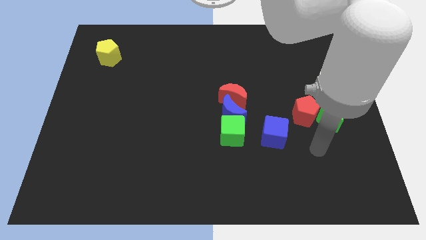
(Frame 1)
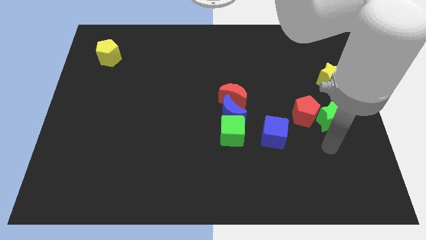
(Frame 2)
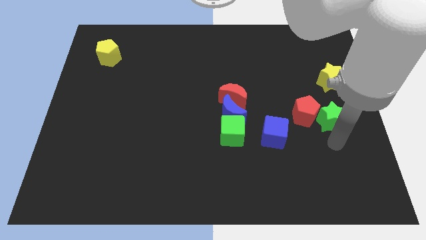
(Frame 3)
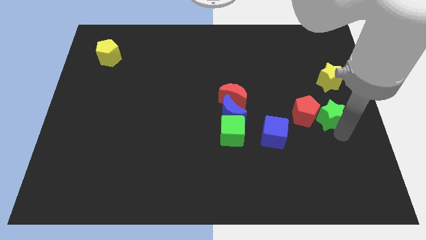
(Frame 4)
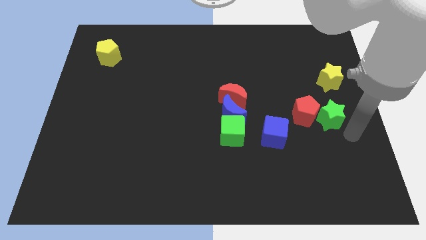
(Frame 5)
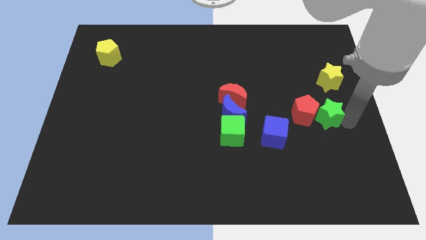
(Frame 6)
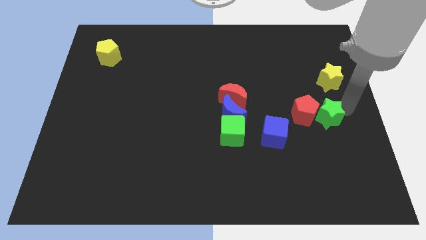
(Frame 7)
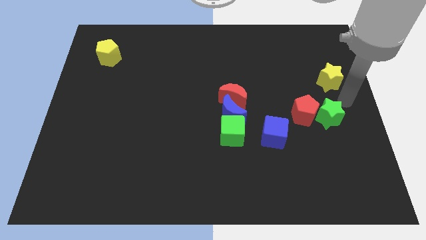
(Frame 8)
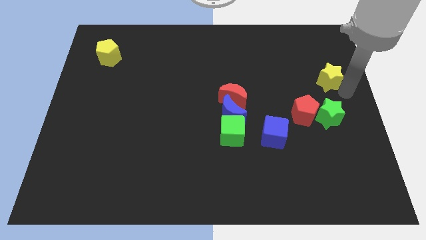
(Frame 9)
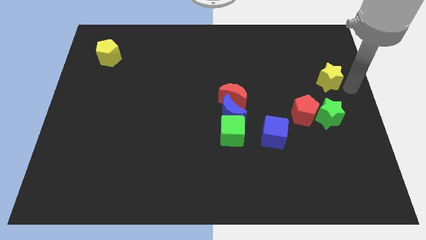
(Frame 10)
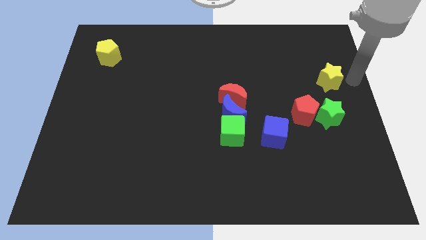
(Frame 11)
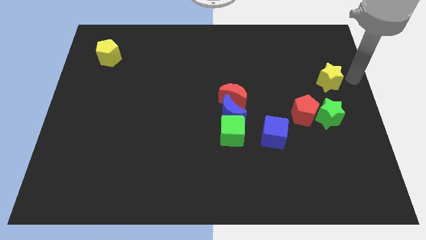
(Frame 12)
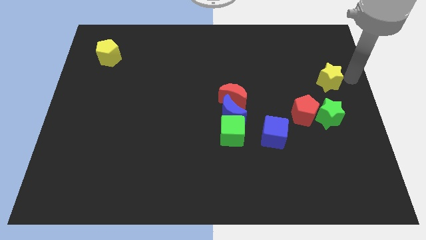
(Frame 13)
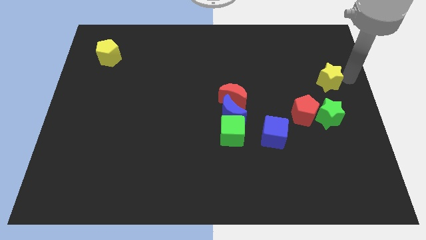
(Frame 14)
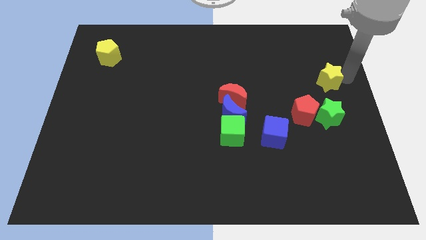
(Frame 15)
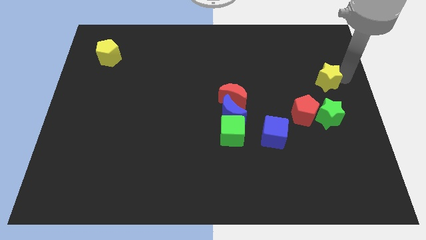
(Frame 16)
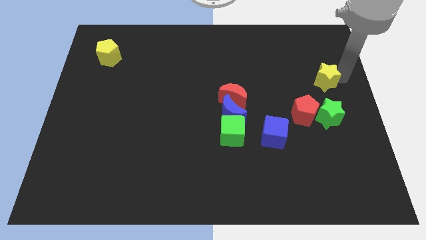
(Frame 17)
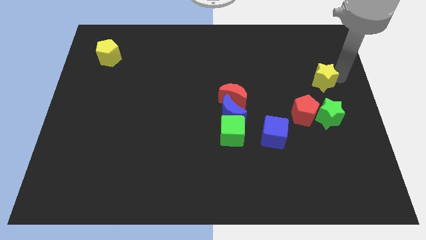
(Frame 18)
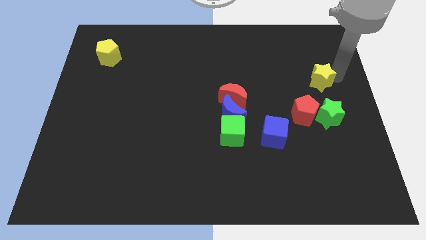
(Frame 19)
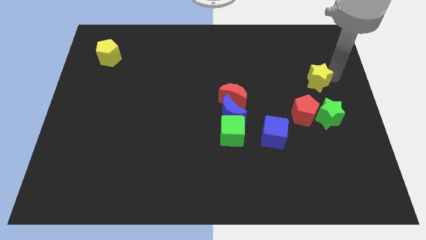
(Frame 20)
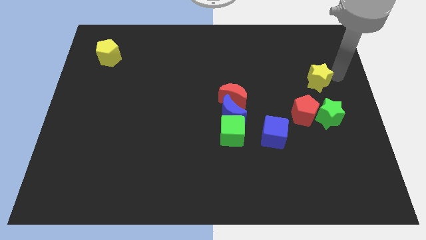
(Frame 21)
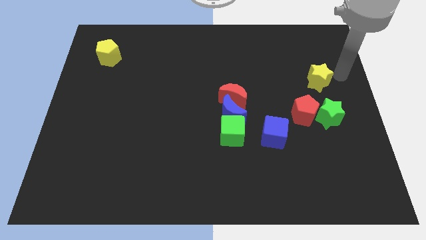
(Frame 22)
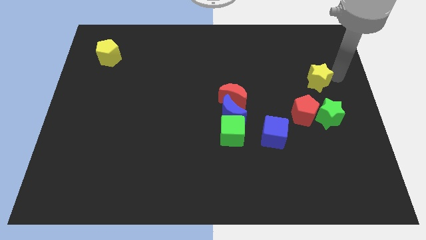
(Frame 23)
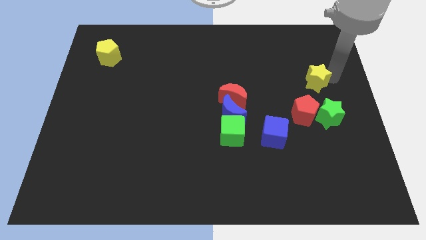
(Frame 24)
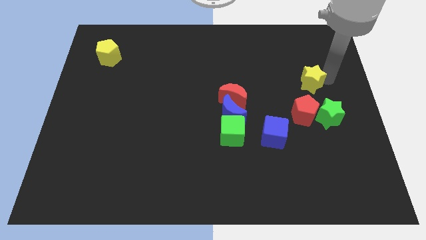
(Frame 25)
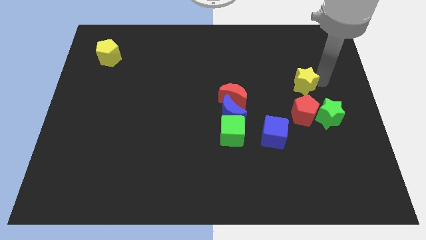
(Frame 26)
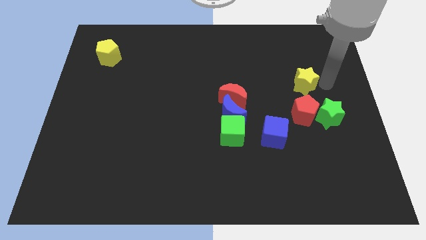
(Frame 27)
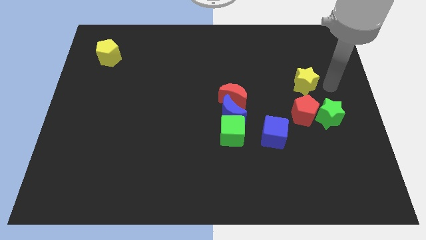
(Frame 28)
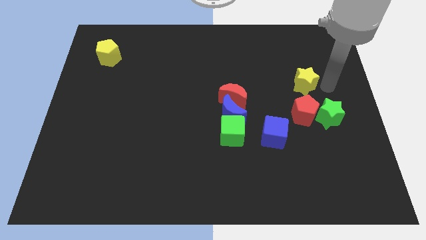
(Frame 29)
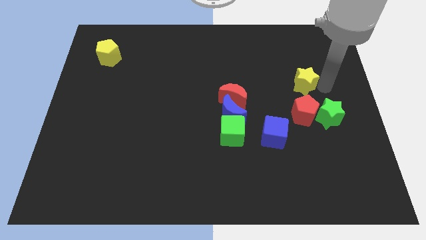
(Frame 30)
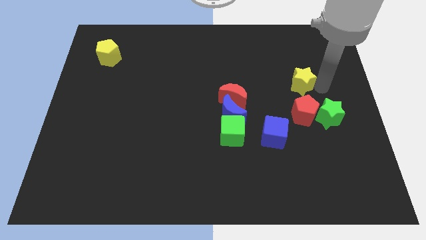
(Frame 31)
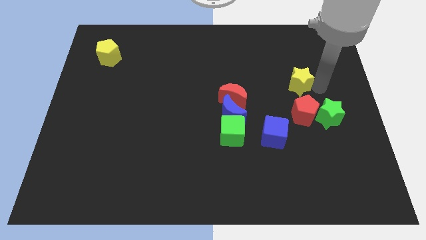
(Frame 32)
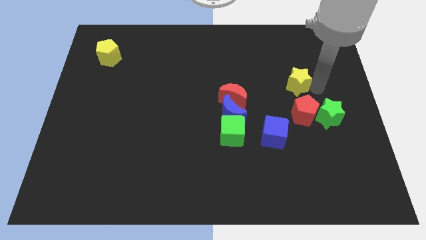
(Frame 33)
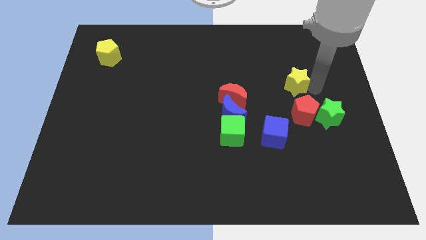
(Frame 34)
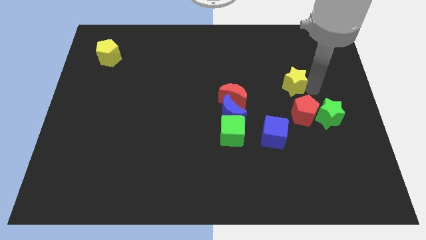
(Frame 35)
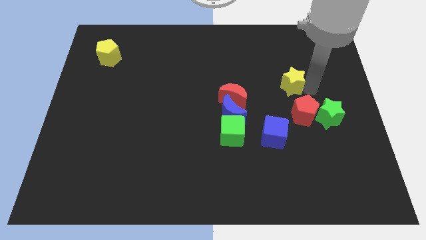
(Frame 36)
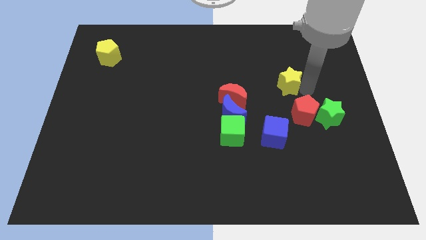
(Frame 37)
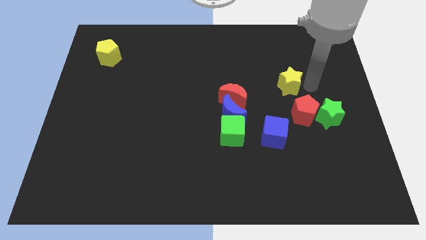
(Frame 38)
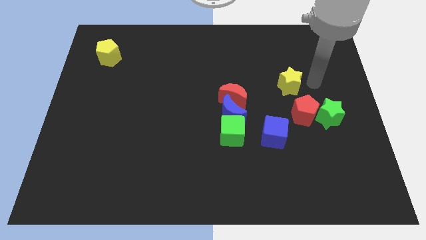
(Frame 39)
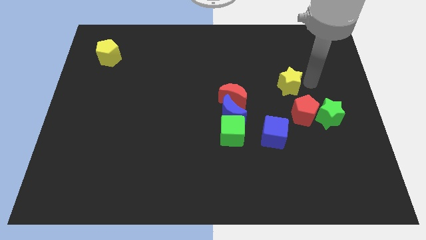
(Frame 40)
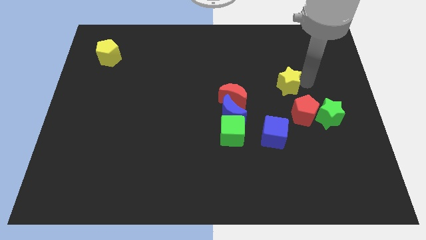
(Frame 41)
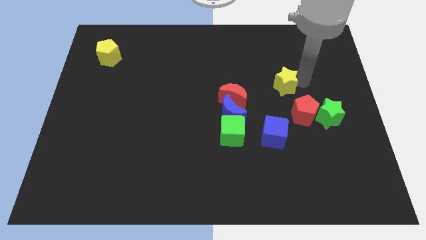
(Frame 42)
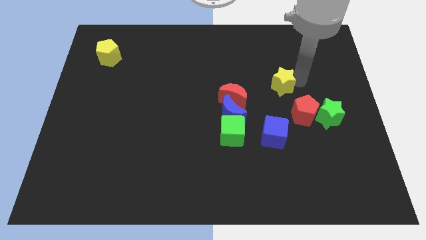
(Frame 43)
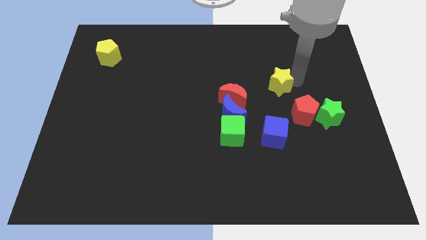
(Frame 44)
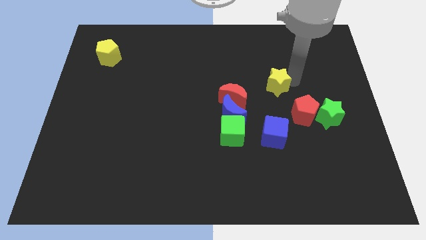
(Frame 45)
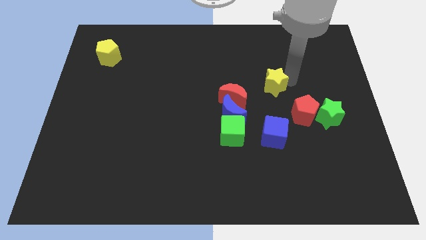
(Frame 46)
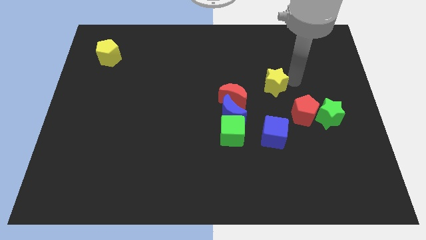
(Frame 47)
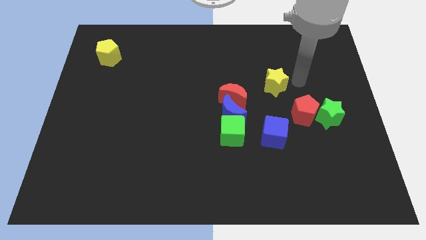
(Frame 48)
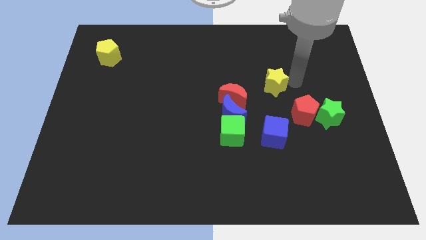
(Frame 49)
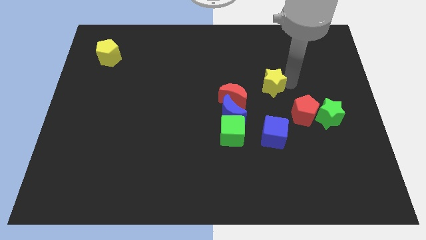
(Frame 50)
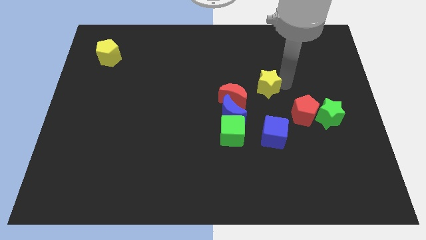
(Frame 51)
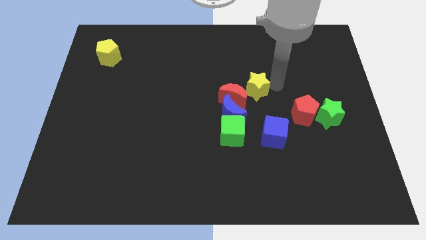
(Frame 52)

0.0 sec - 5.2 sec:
move the yellow star to the red moon

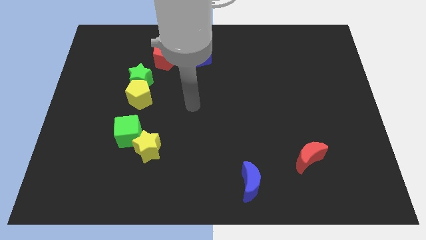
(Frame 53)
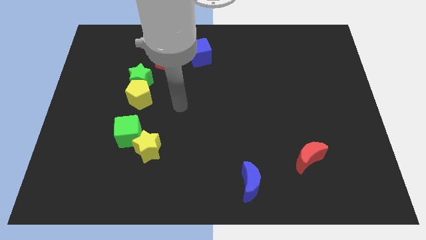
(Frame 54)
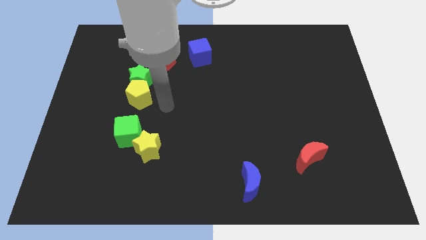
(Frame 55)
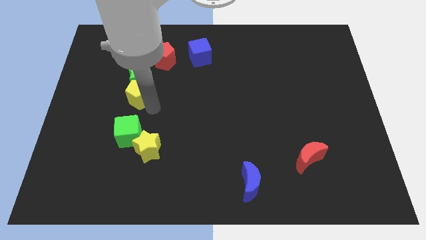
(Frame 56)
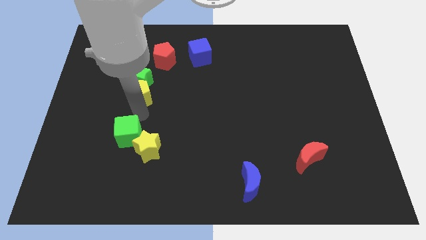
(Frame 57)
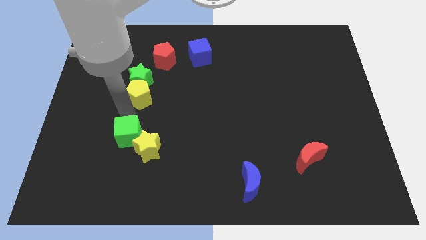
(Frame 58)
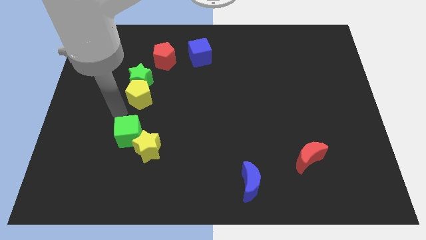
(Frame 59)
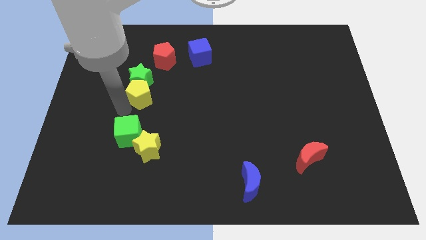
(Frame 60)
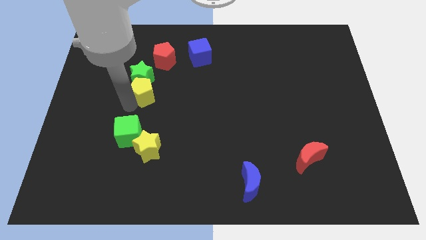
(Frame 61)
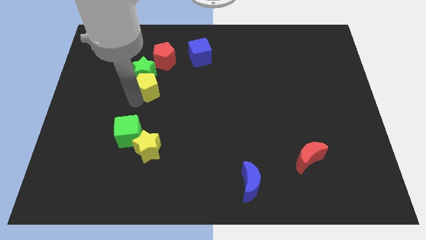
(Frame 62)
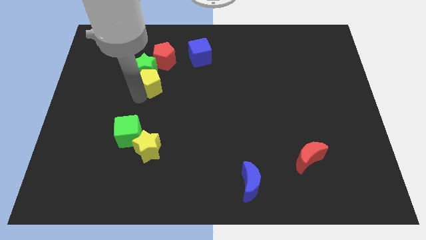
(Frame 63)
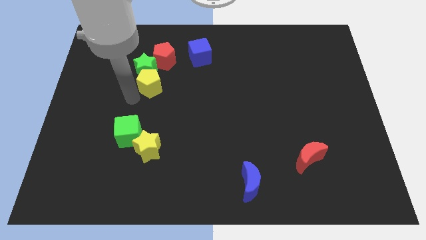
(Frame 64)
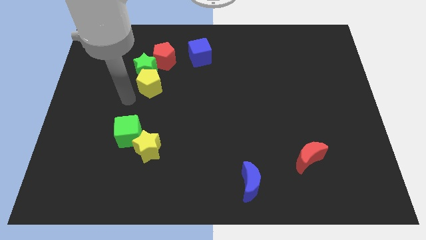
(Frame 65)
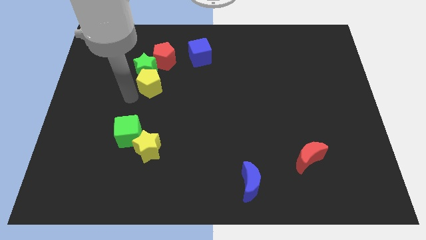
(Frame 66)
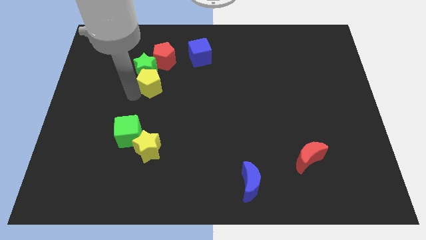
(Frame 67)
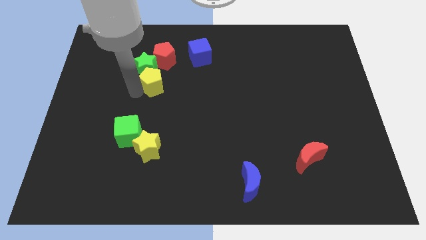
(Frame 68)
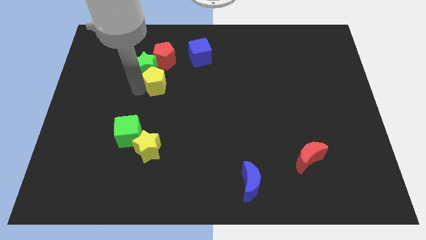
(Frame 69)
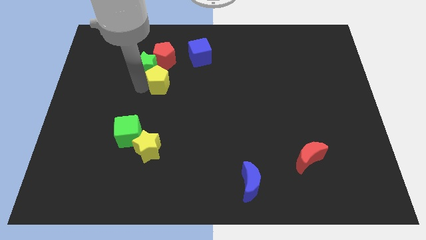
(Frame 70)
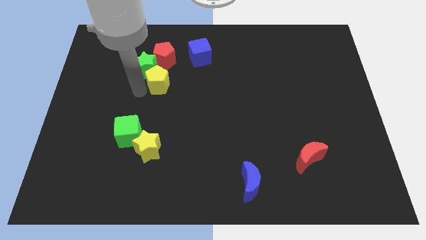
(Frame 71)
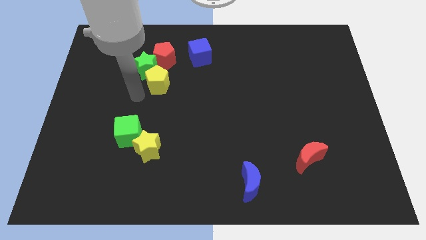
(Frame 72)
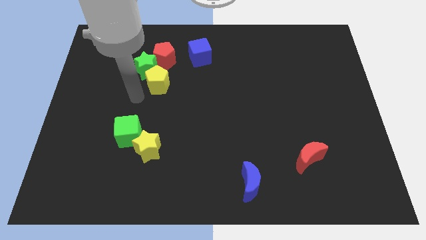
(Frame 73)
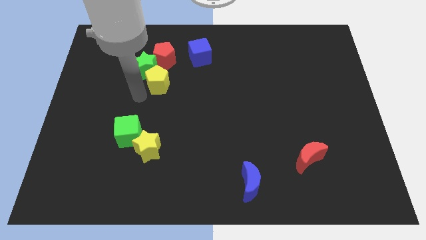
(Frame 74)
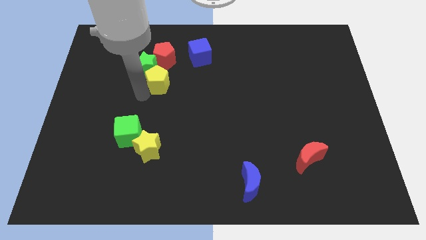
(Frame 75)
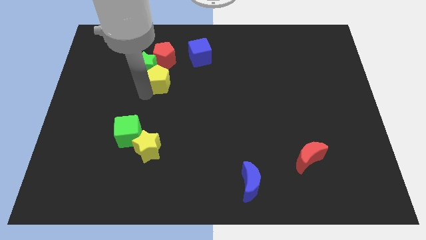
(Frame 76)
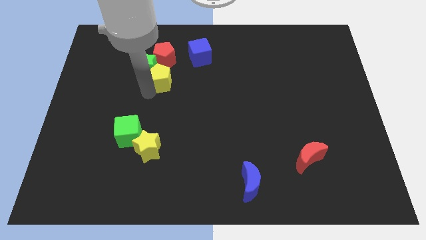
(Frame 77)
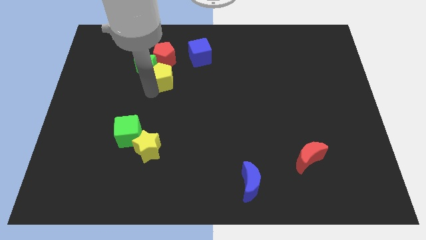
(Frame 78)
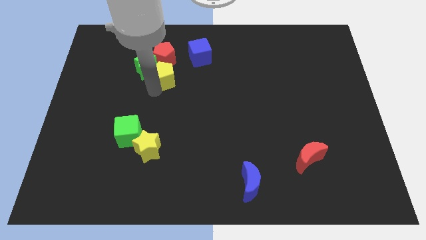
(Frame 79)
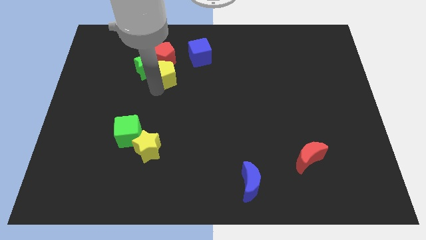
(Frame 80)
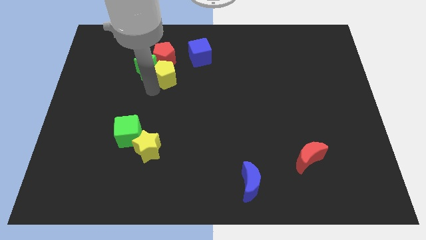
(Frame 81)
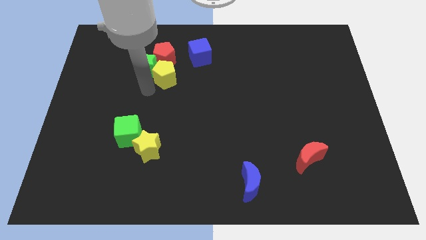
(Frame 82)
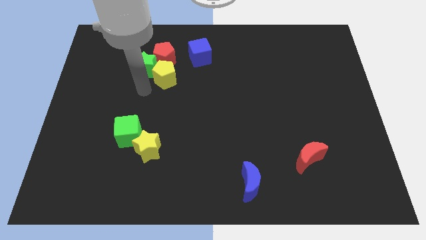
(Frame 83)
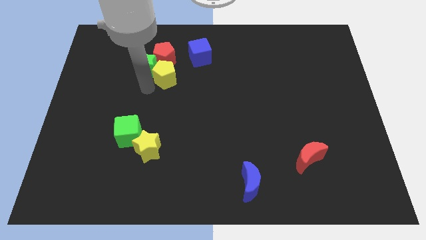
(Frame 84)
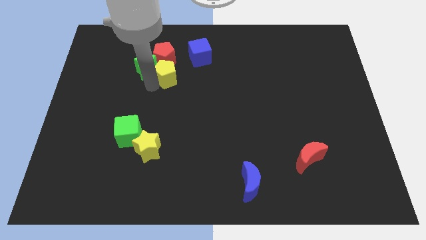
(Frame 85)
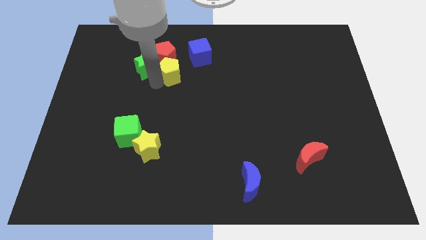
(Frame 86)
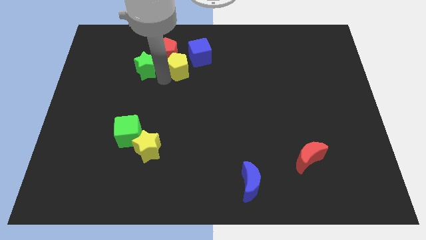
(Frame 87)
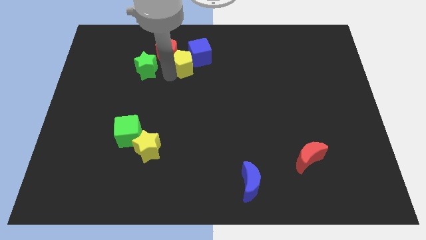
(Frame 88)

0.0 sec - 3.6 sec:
move the yellow pentagon close to the blue cube
